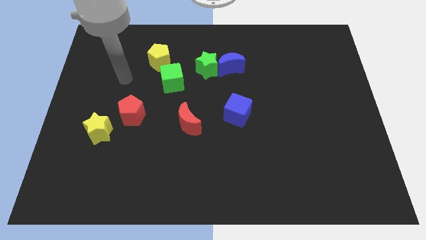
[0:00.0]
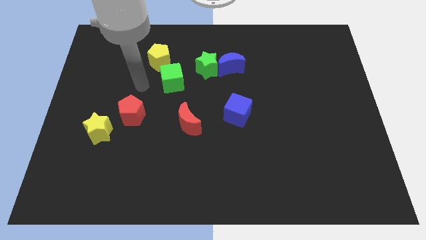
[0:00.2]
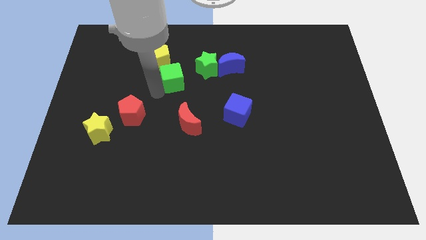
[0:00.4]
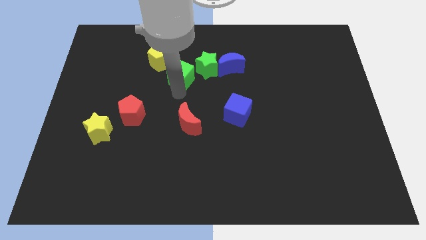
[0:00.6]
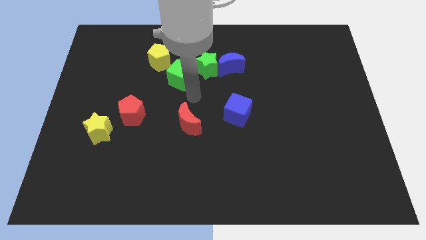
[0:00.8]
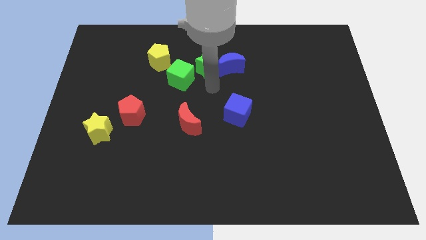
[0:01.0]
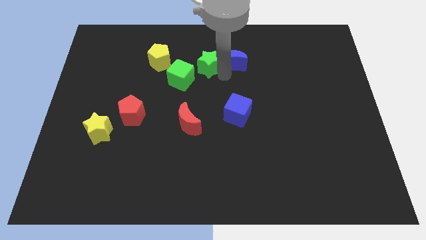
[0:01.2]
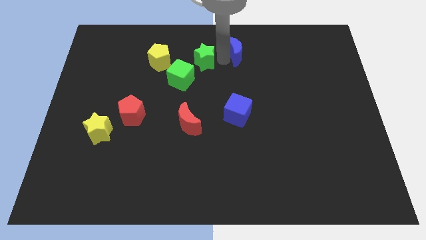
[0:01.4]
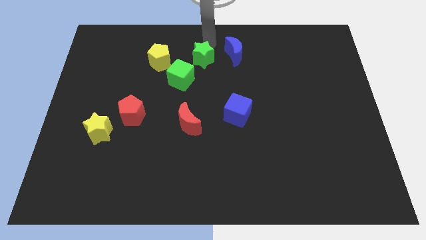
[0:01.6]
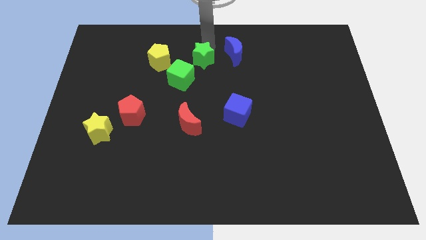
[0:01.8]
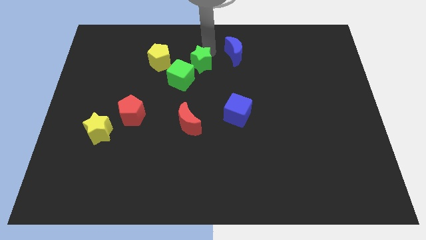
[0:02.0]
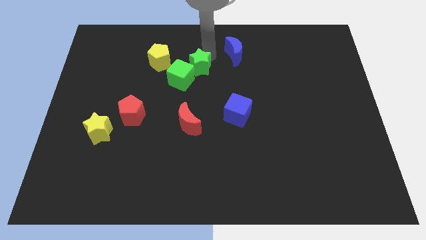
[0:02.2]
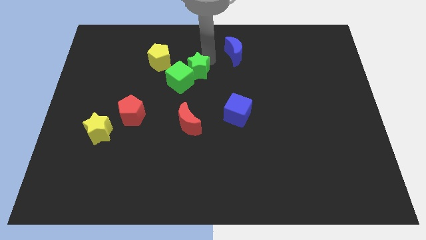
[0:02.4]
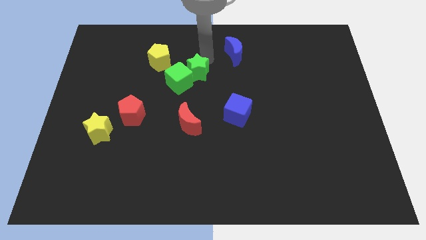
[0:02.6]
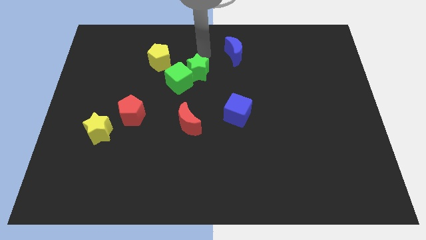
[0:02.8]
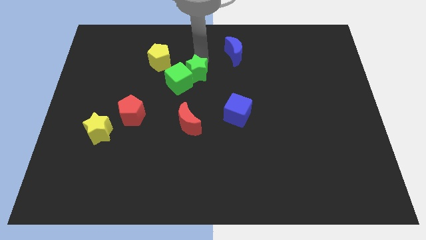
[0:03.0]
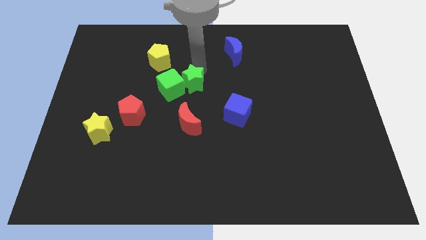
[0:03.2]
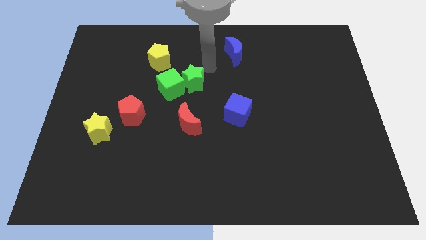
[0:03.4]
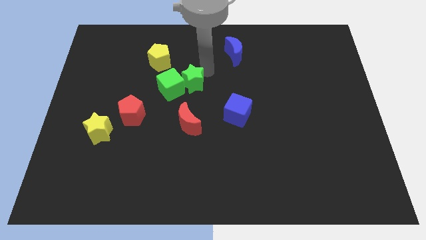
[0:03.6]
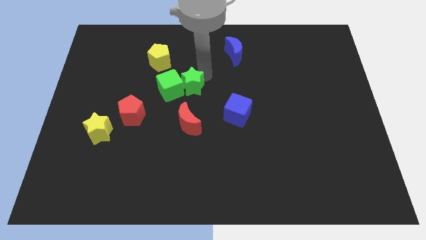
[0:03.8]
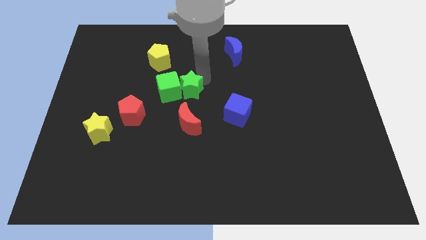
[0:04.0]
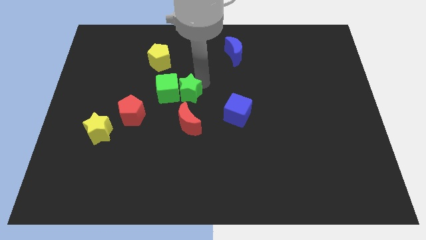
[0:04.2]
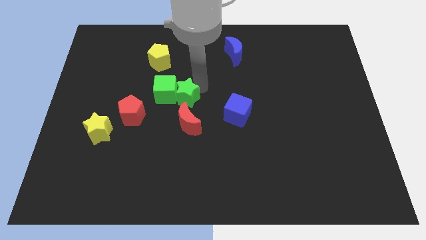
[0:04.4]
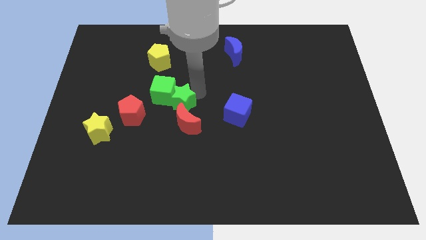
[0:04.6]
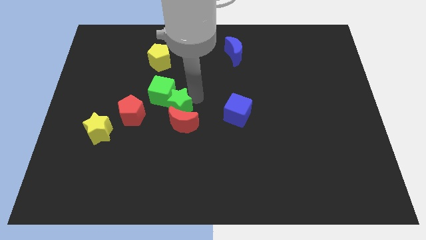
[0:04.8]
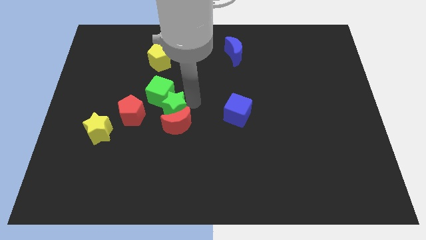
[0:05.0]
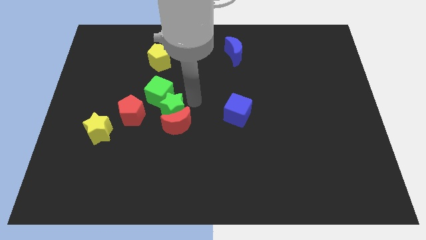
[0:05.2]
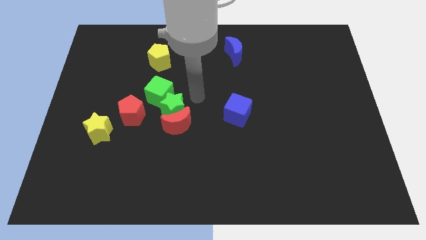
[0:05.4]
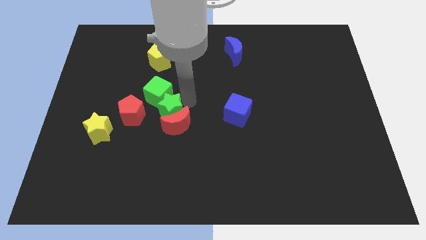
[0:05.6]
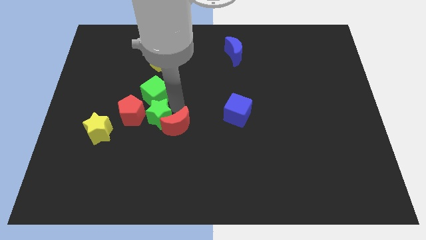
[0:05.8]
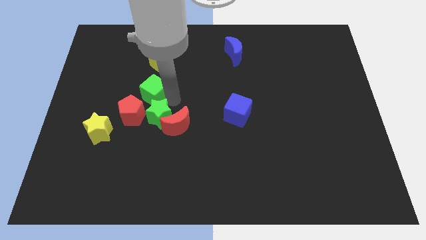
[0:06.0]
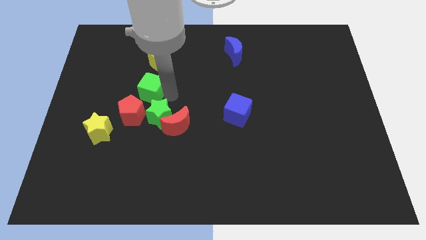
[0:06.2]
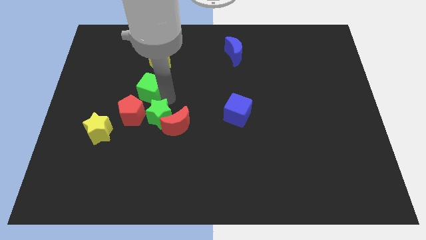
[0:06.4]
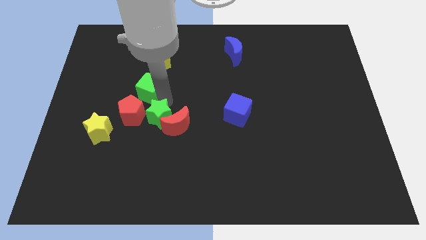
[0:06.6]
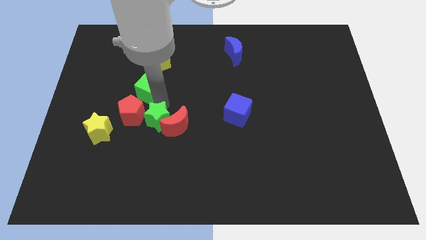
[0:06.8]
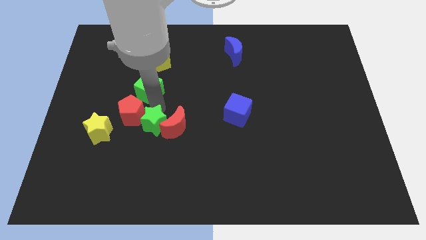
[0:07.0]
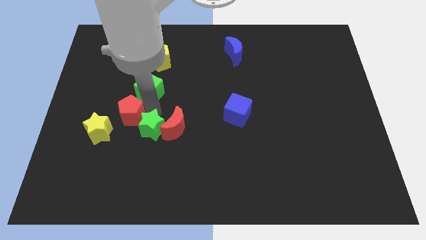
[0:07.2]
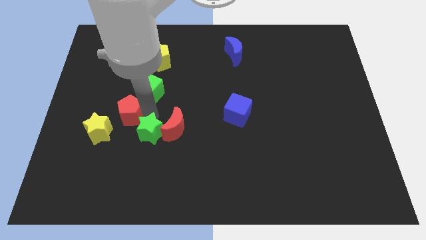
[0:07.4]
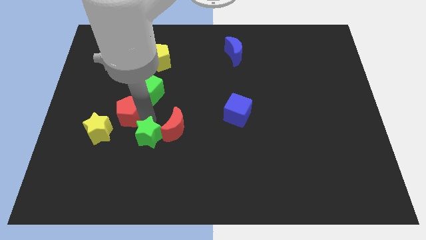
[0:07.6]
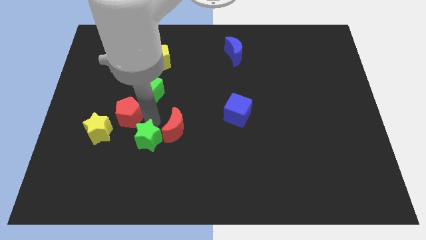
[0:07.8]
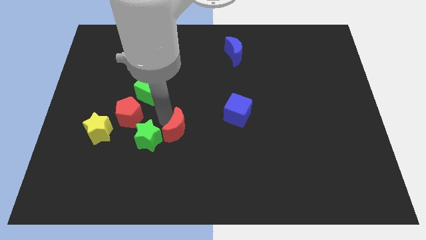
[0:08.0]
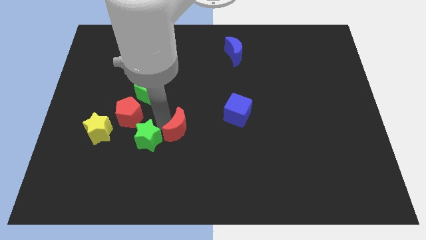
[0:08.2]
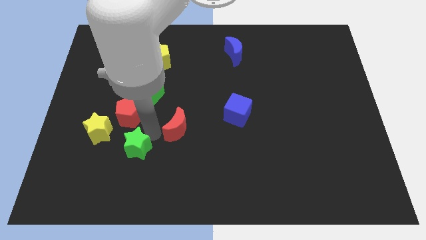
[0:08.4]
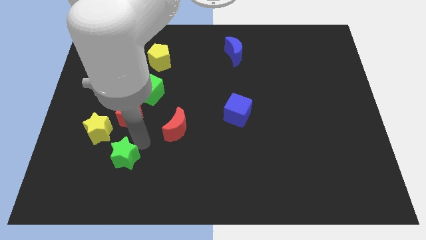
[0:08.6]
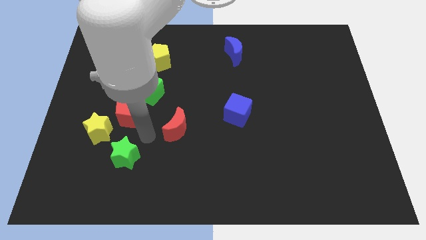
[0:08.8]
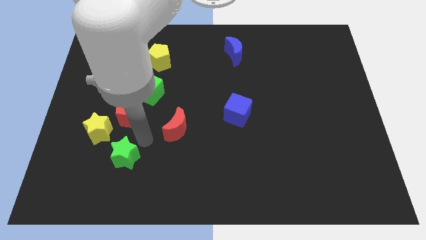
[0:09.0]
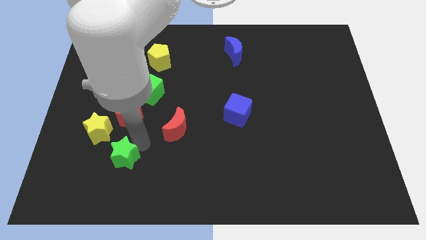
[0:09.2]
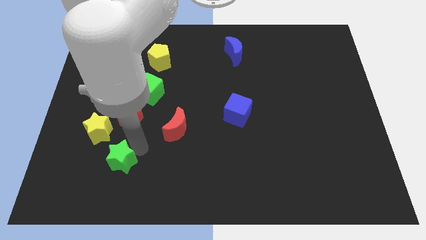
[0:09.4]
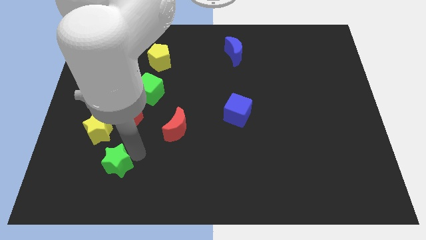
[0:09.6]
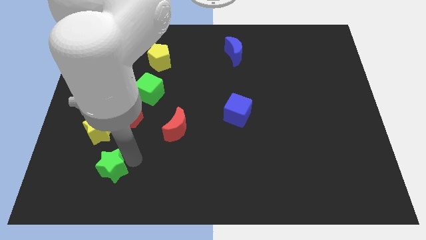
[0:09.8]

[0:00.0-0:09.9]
slide the green star to the bottom of the yellow star

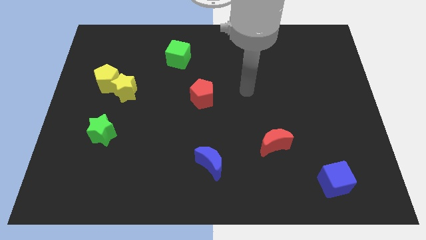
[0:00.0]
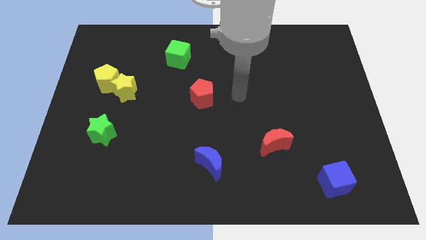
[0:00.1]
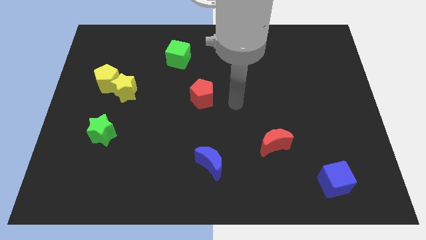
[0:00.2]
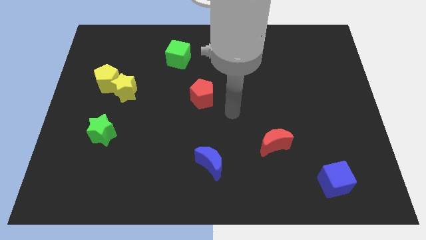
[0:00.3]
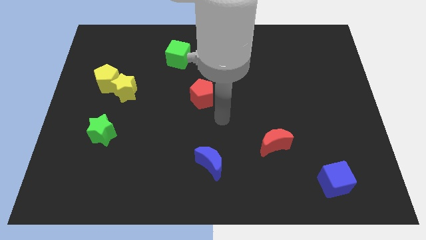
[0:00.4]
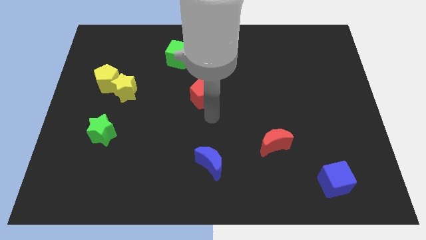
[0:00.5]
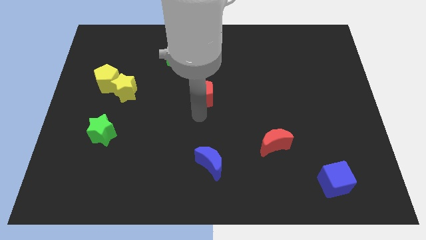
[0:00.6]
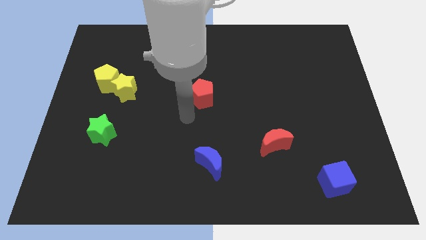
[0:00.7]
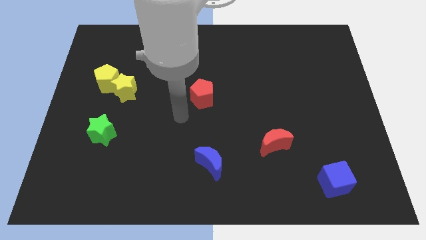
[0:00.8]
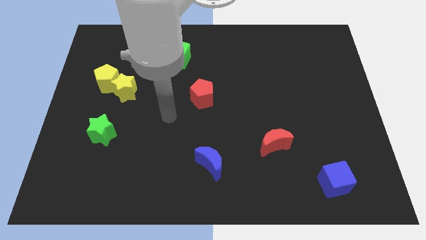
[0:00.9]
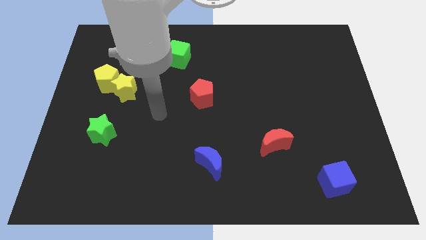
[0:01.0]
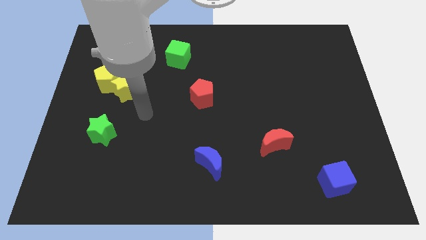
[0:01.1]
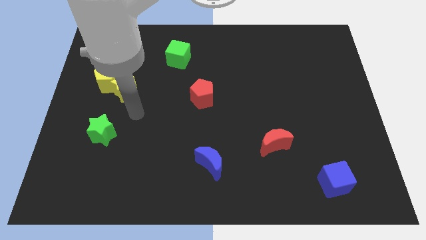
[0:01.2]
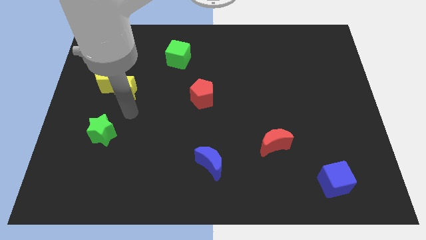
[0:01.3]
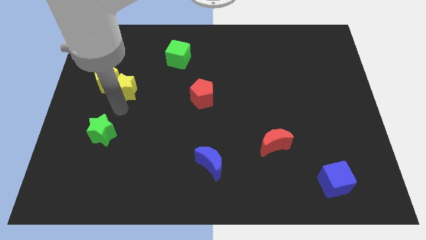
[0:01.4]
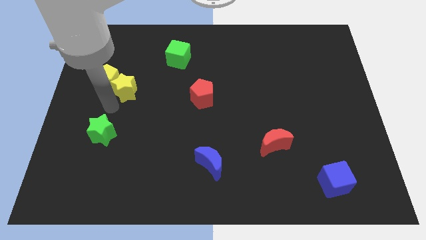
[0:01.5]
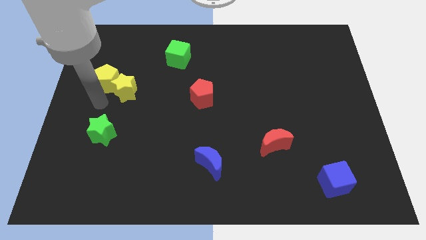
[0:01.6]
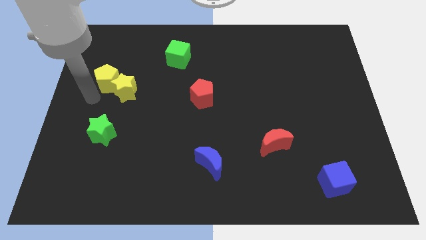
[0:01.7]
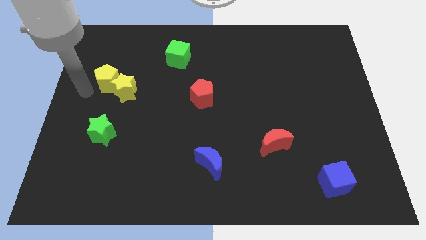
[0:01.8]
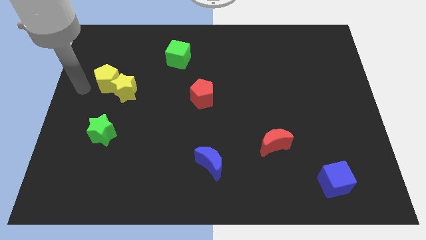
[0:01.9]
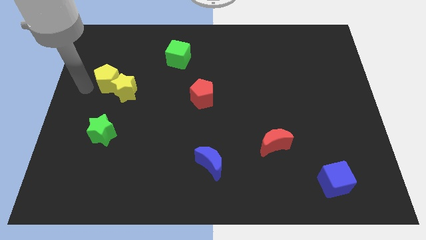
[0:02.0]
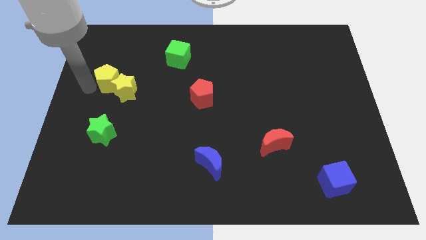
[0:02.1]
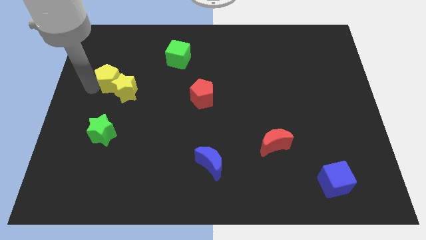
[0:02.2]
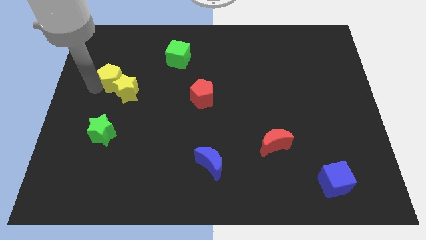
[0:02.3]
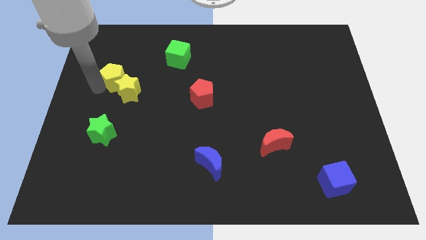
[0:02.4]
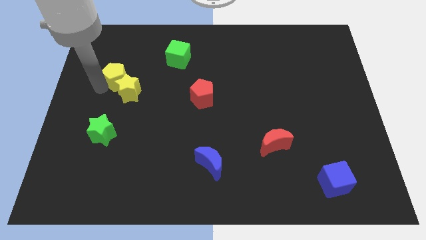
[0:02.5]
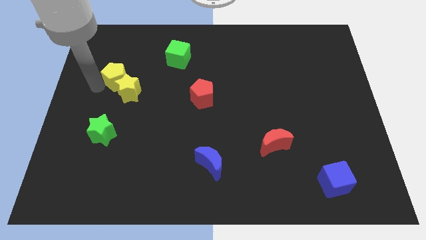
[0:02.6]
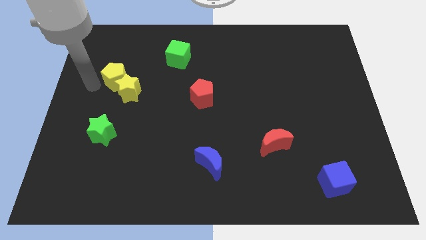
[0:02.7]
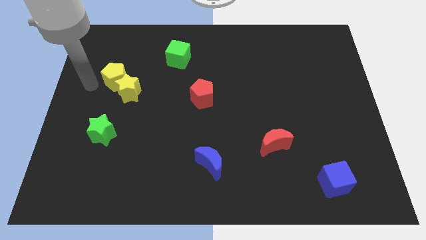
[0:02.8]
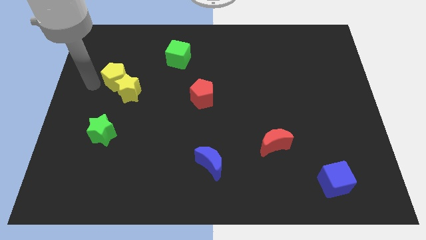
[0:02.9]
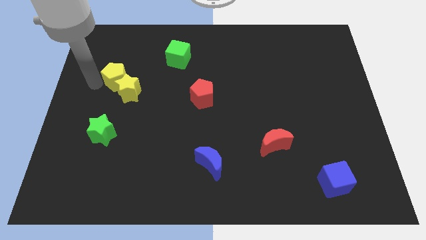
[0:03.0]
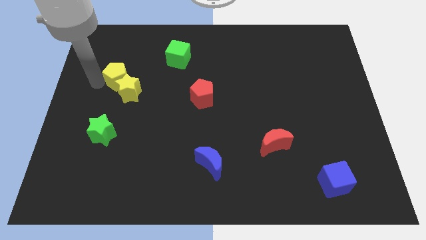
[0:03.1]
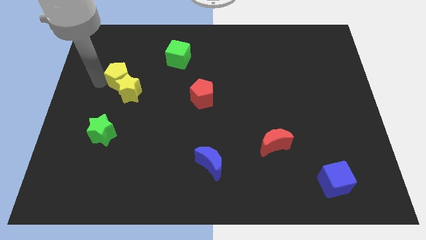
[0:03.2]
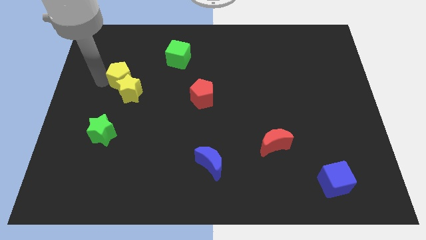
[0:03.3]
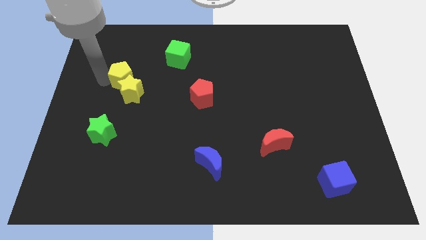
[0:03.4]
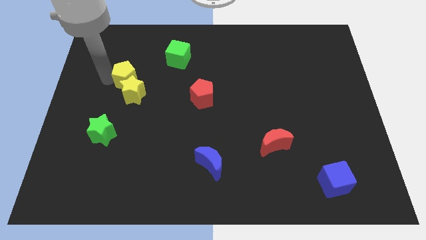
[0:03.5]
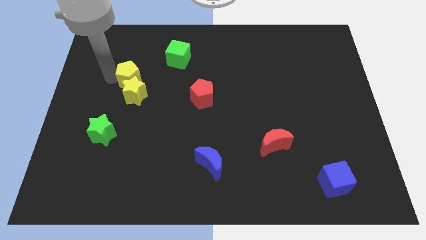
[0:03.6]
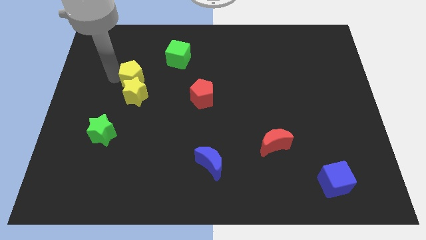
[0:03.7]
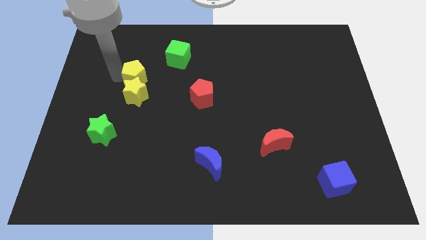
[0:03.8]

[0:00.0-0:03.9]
move the yellow pentagon to the bottom left side of the green cube
